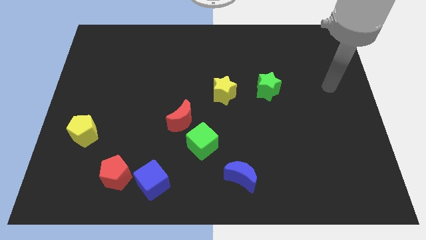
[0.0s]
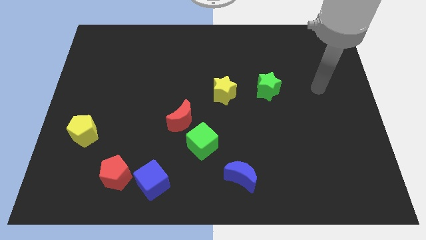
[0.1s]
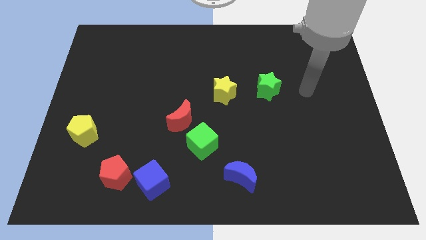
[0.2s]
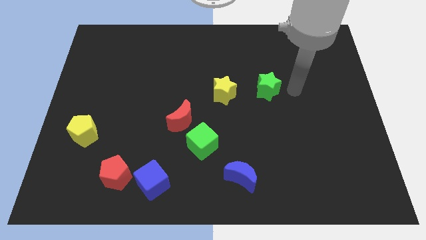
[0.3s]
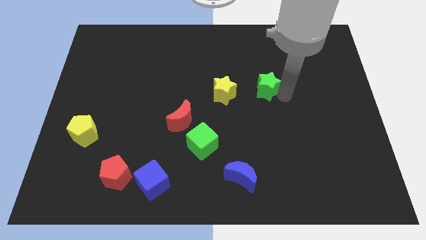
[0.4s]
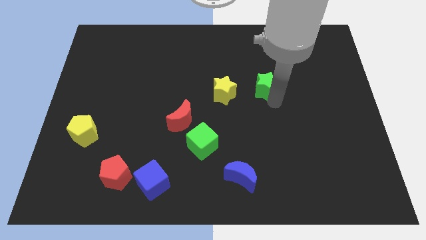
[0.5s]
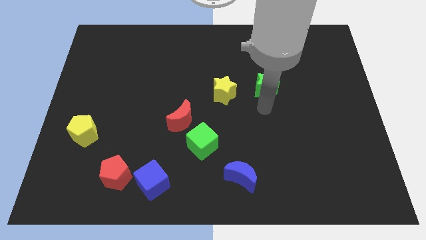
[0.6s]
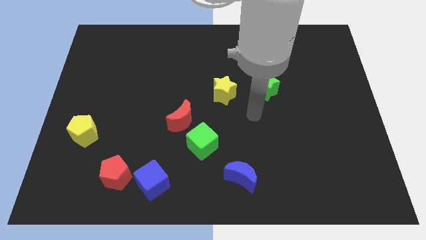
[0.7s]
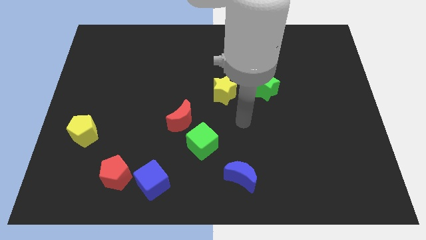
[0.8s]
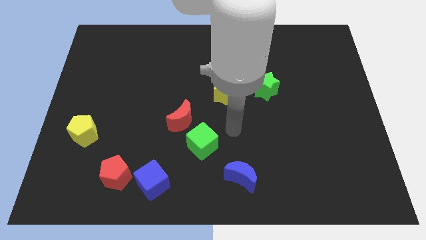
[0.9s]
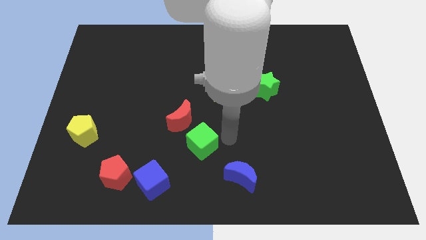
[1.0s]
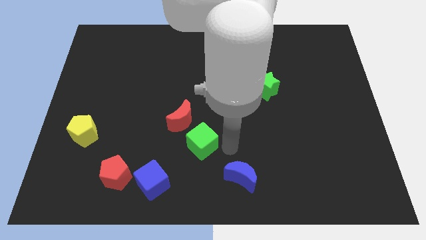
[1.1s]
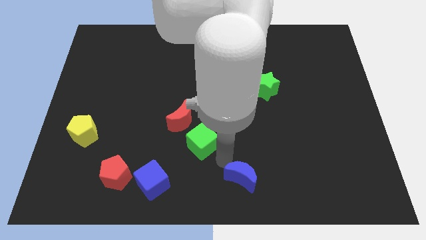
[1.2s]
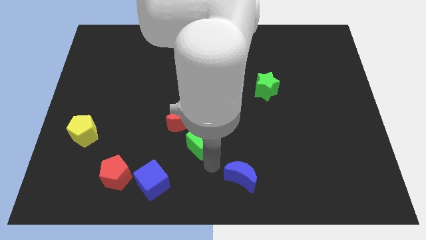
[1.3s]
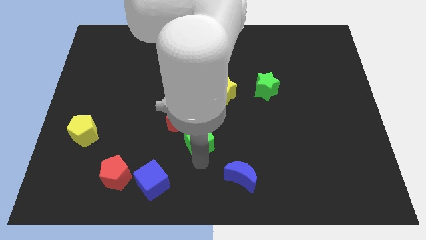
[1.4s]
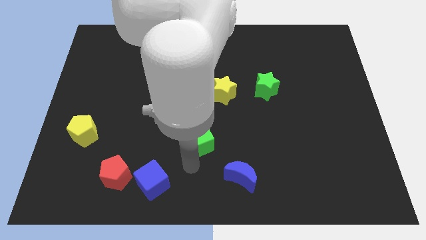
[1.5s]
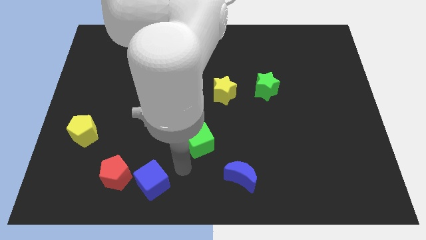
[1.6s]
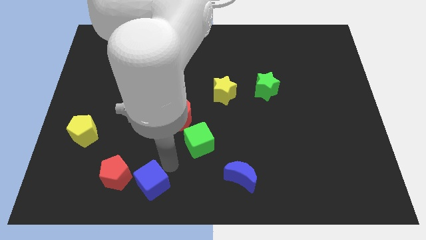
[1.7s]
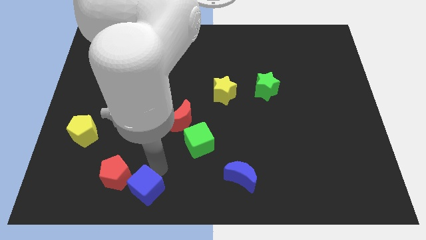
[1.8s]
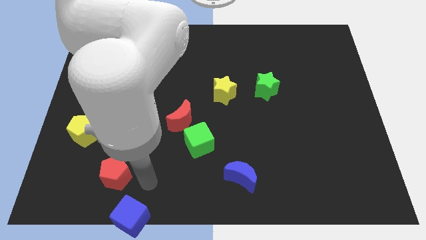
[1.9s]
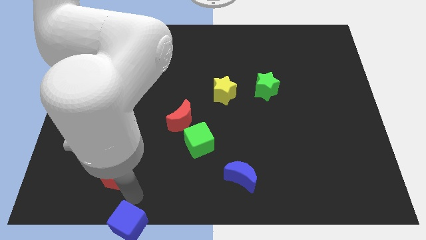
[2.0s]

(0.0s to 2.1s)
separate the red pentagon from the blue cube

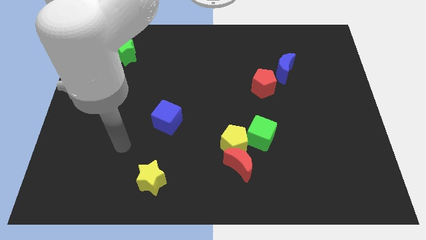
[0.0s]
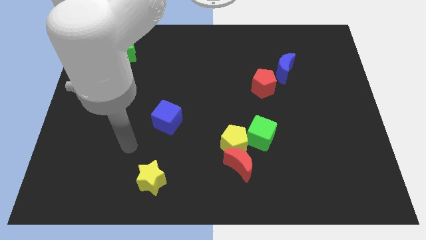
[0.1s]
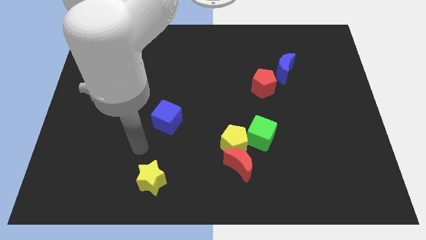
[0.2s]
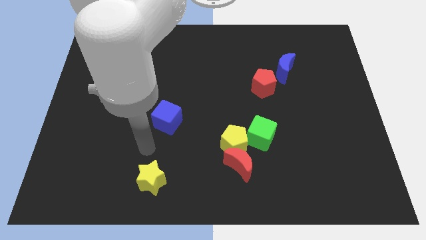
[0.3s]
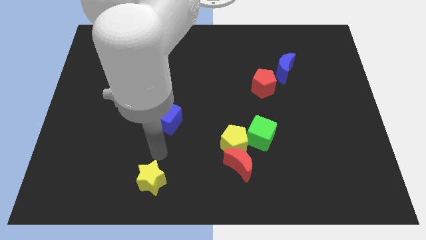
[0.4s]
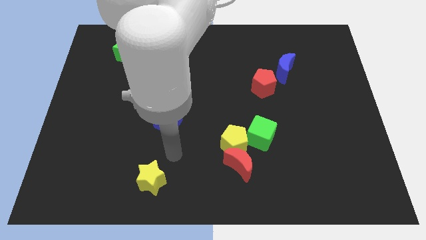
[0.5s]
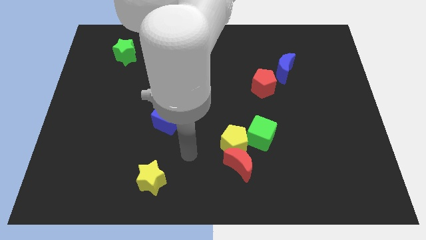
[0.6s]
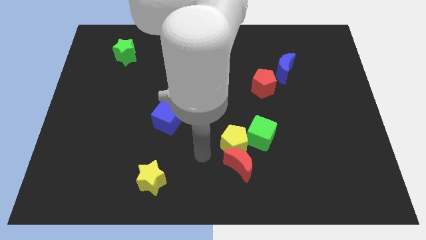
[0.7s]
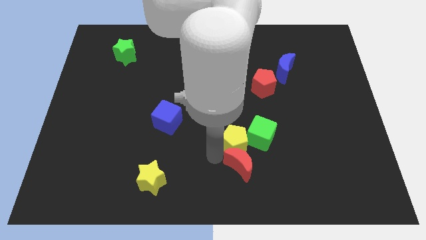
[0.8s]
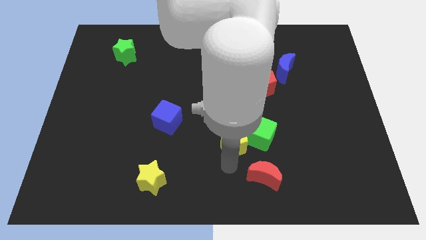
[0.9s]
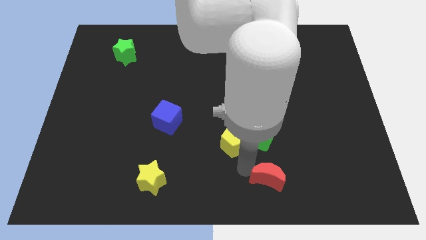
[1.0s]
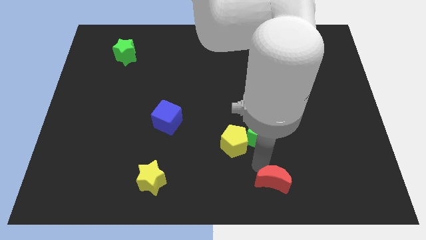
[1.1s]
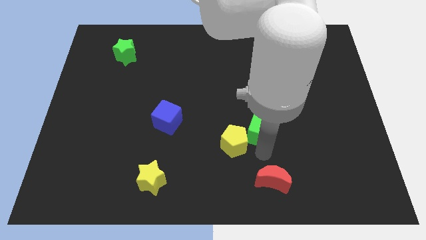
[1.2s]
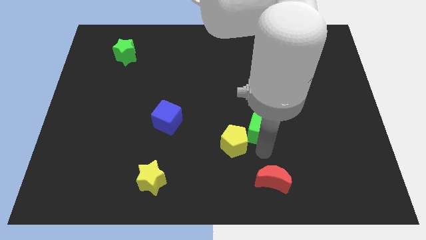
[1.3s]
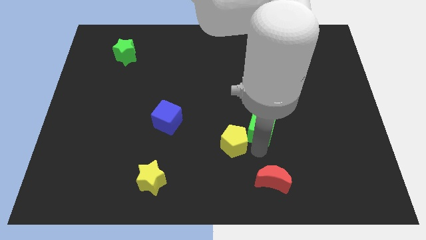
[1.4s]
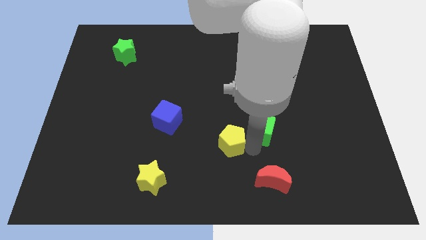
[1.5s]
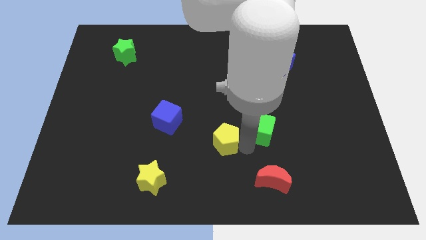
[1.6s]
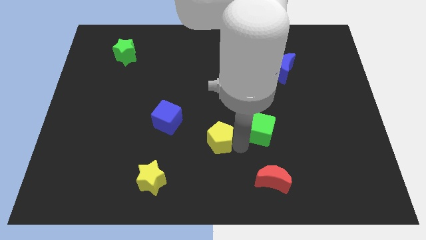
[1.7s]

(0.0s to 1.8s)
pull the yellow pentagon apart from the red moon and green cube

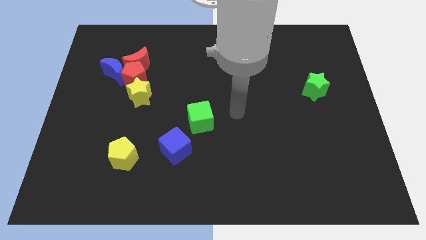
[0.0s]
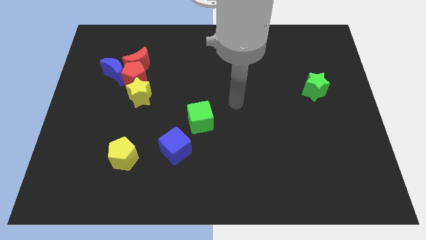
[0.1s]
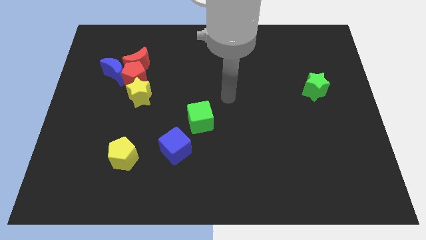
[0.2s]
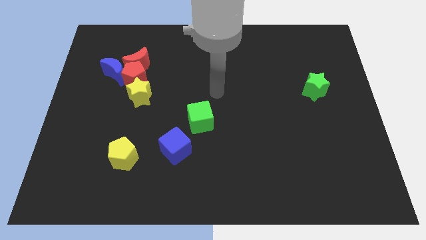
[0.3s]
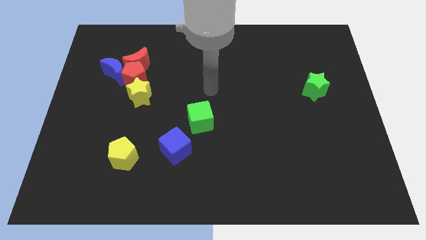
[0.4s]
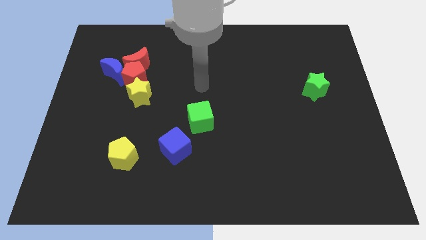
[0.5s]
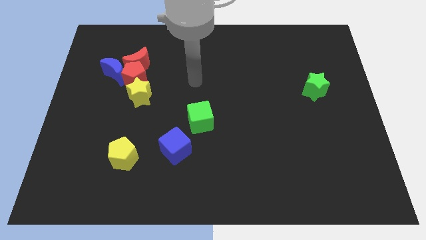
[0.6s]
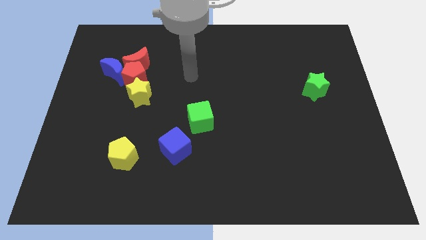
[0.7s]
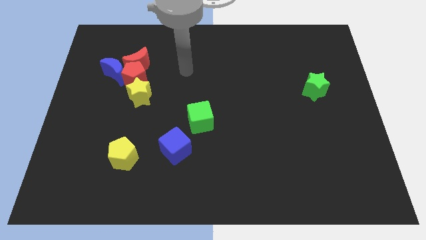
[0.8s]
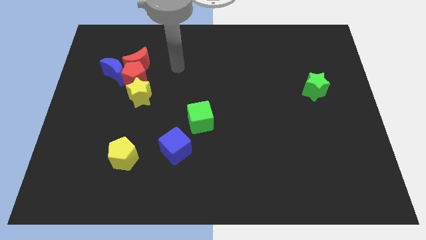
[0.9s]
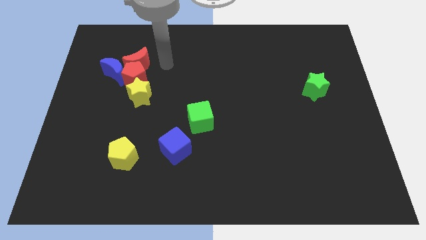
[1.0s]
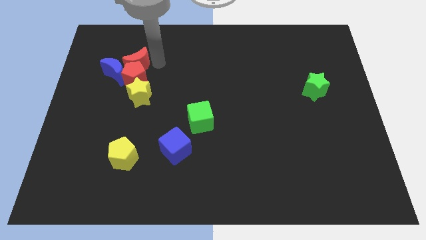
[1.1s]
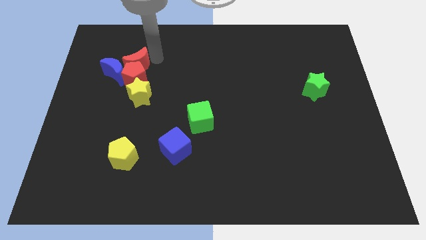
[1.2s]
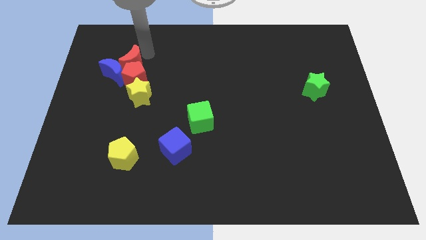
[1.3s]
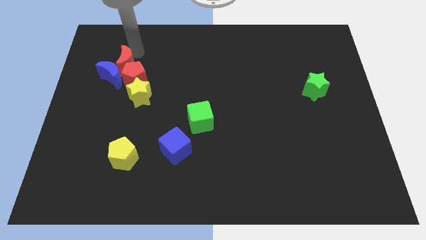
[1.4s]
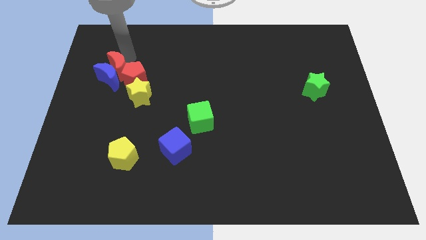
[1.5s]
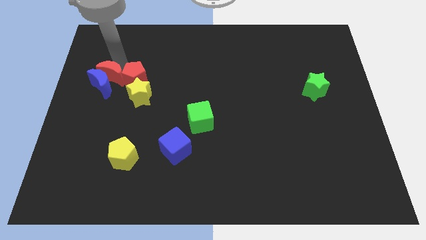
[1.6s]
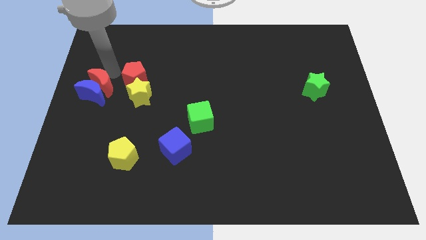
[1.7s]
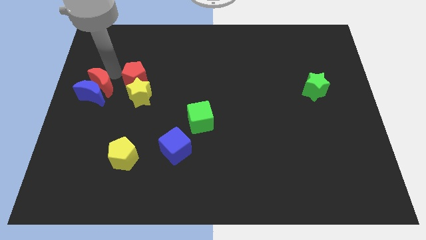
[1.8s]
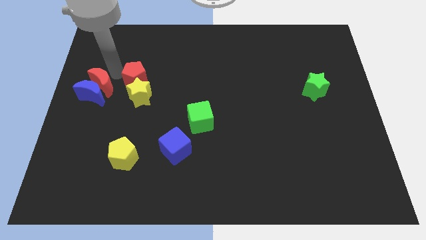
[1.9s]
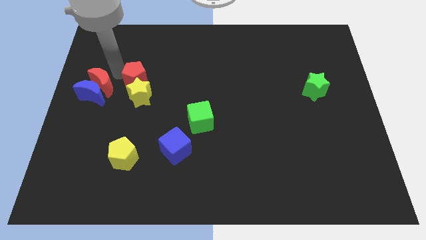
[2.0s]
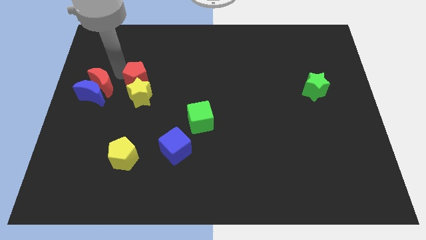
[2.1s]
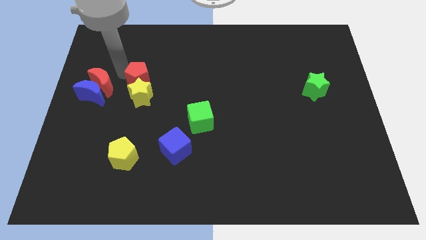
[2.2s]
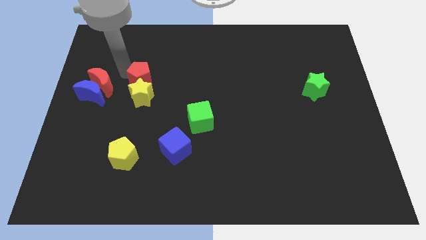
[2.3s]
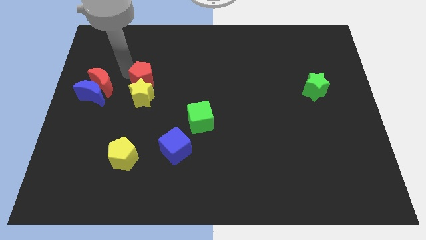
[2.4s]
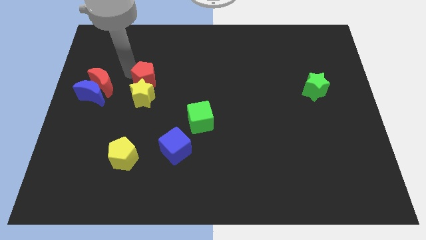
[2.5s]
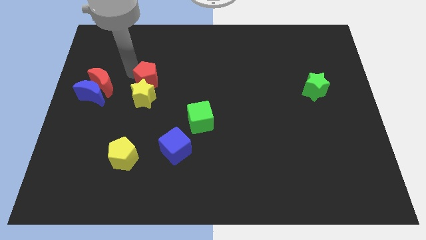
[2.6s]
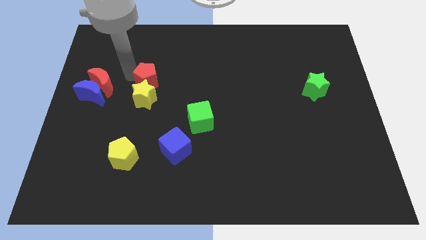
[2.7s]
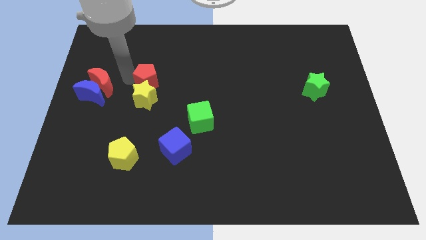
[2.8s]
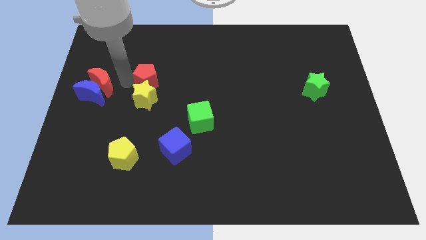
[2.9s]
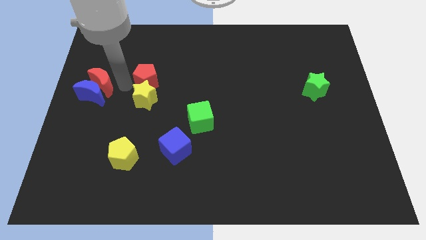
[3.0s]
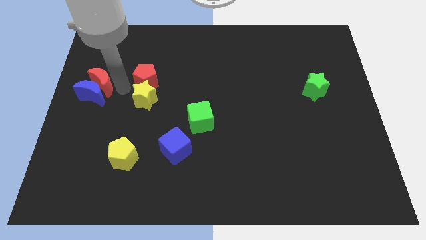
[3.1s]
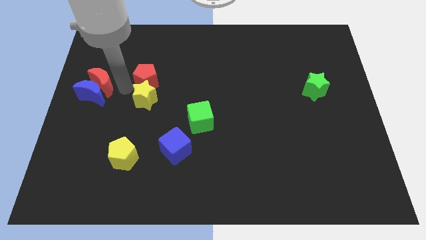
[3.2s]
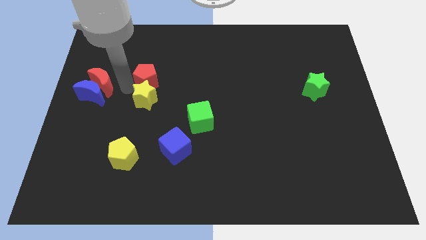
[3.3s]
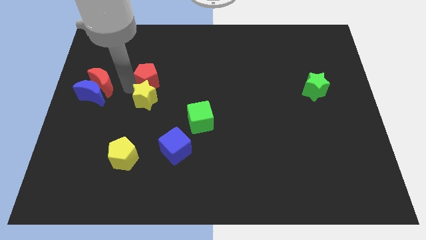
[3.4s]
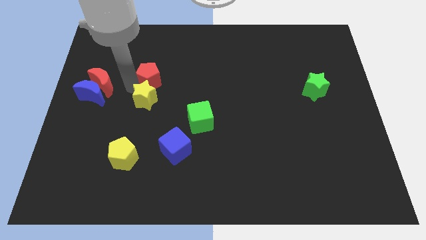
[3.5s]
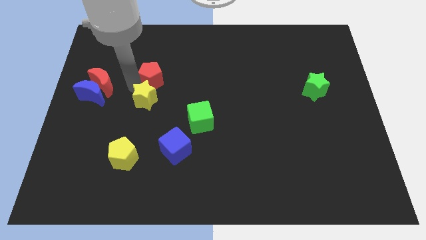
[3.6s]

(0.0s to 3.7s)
separate the red pentagon from the group

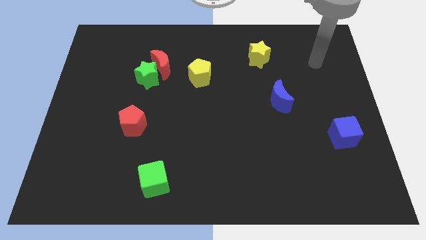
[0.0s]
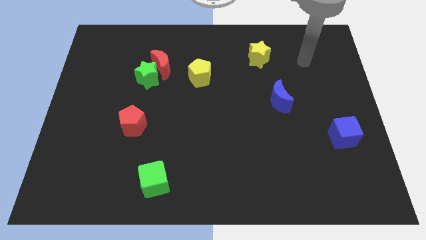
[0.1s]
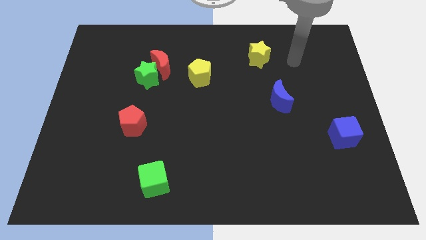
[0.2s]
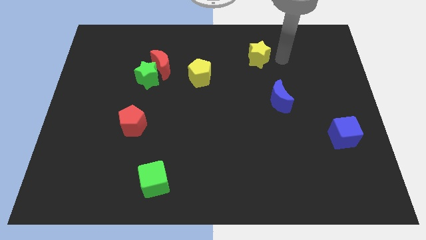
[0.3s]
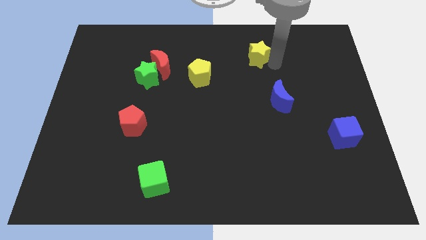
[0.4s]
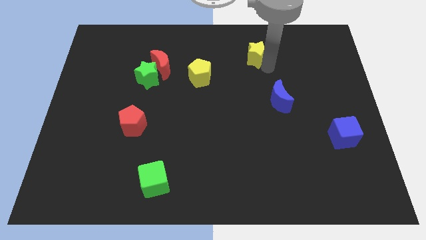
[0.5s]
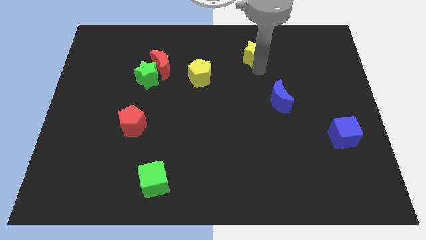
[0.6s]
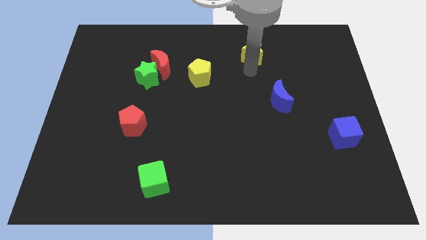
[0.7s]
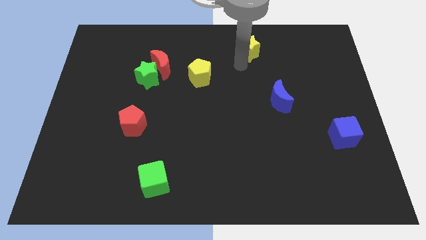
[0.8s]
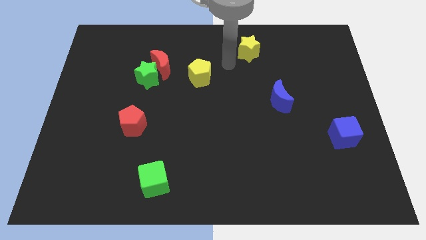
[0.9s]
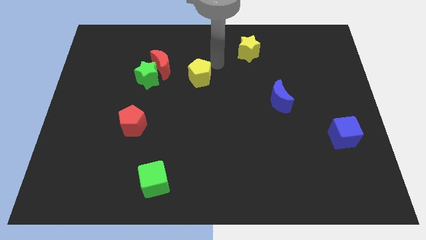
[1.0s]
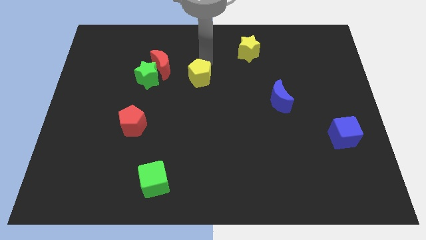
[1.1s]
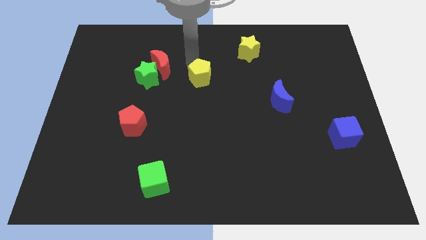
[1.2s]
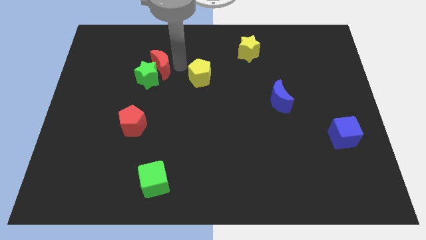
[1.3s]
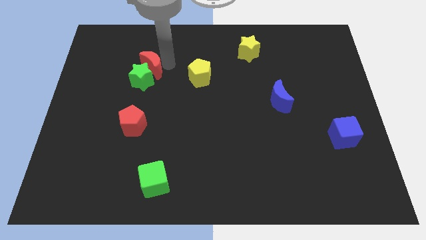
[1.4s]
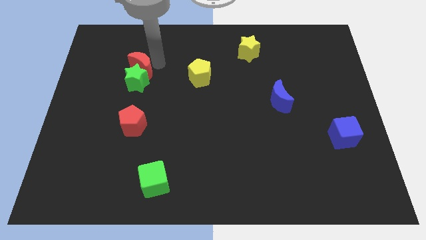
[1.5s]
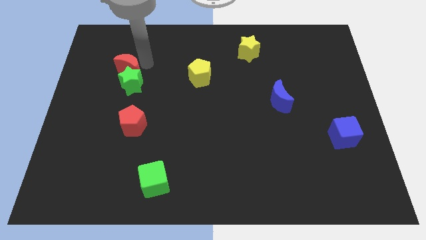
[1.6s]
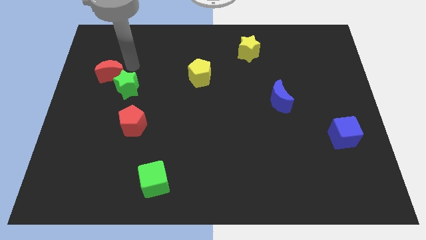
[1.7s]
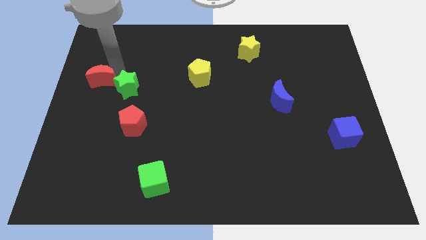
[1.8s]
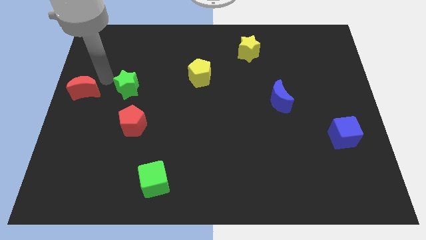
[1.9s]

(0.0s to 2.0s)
pull the green star apart from the red moon
